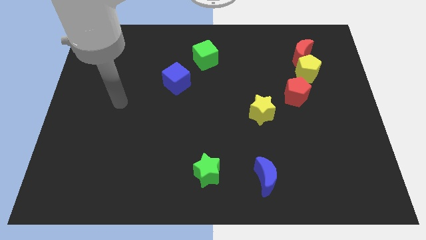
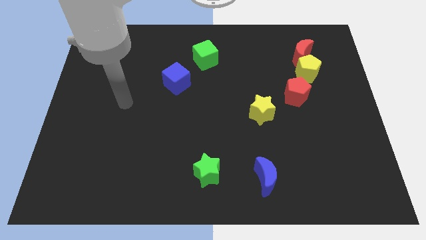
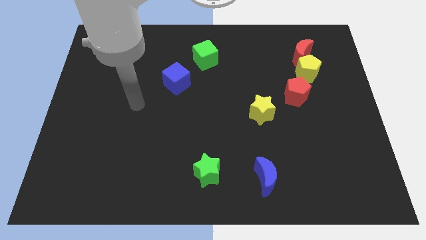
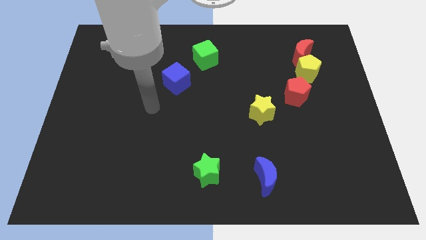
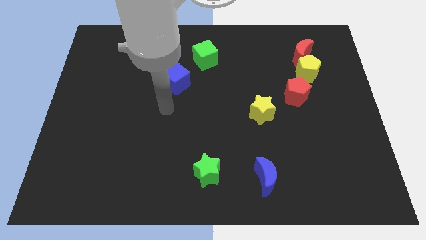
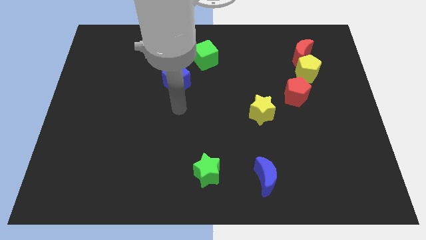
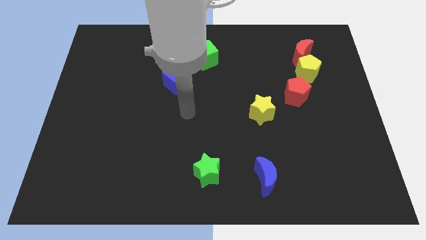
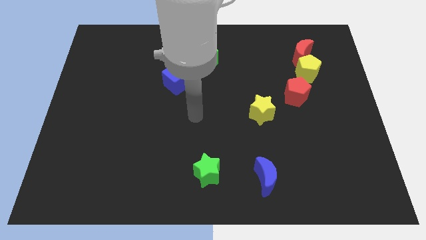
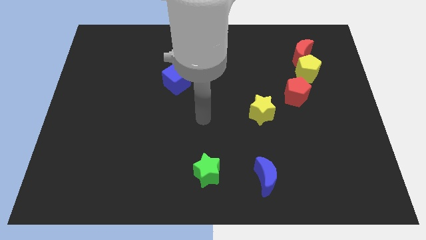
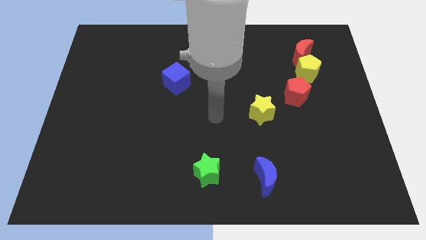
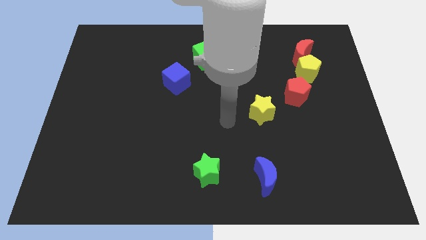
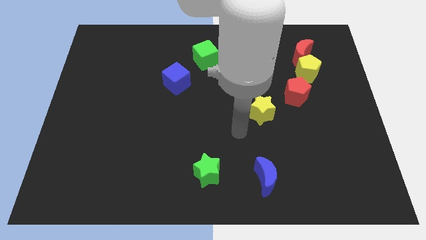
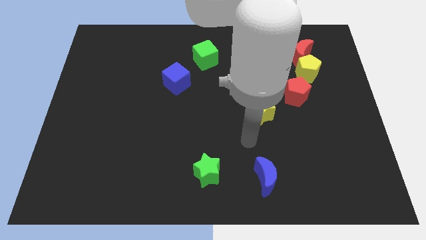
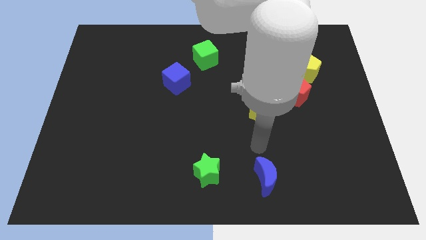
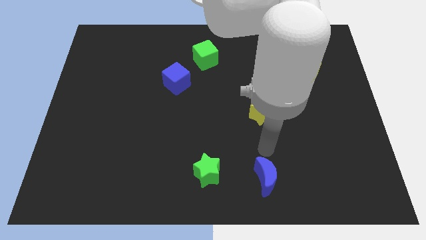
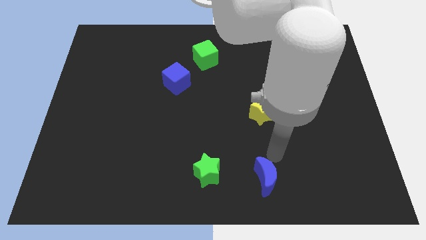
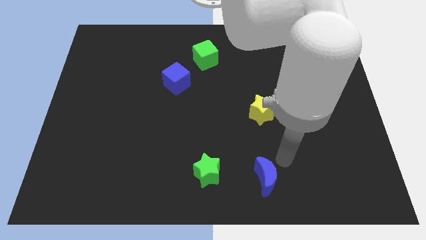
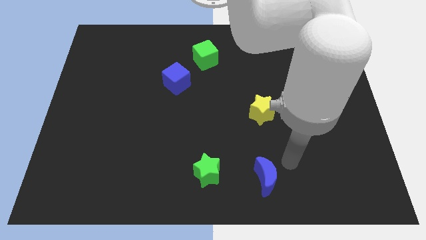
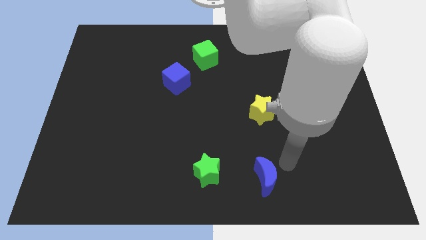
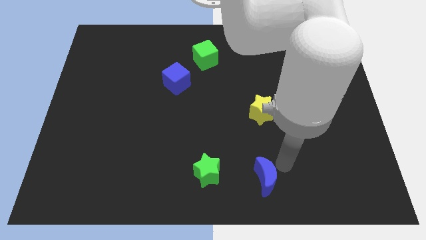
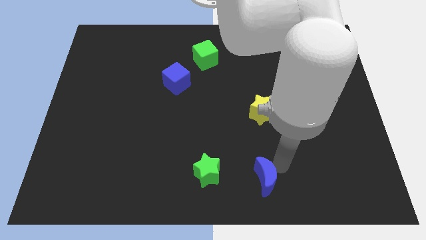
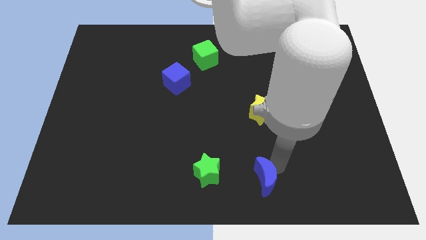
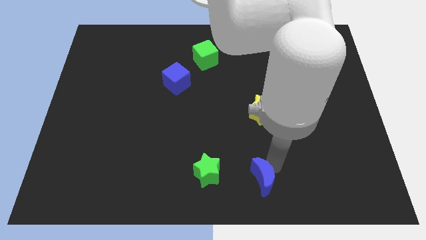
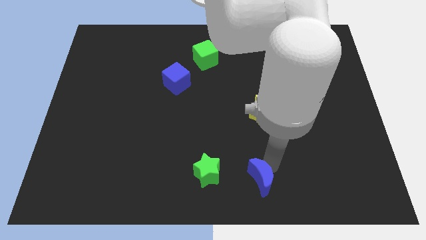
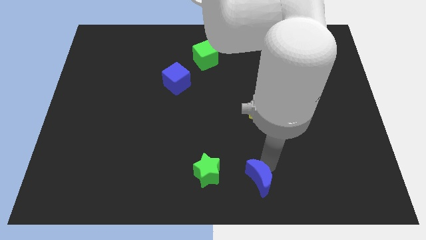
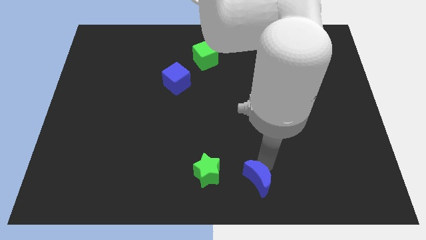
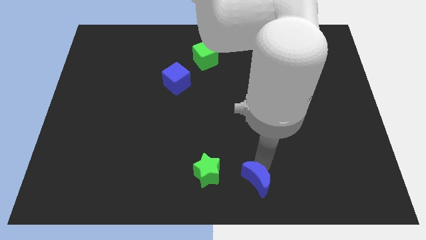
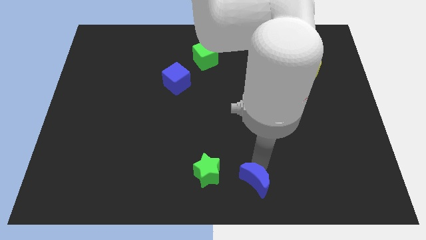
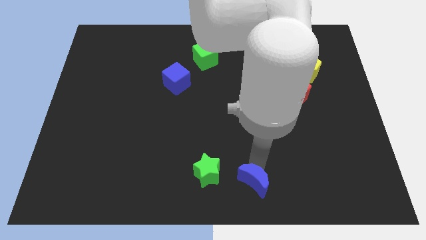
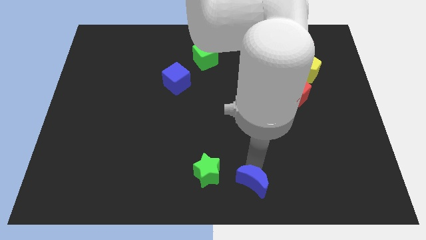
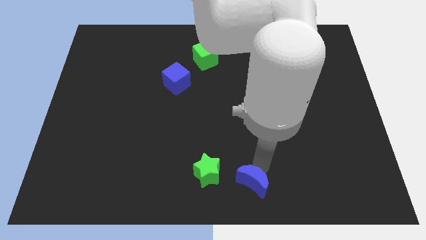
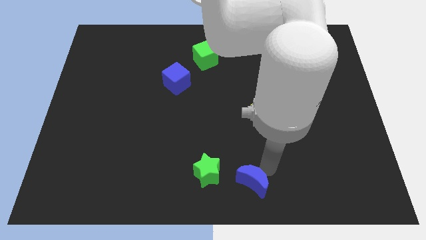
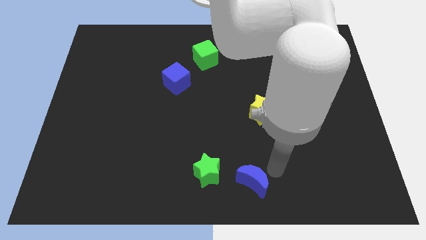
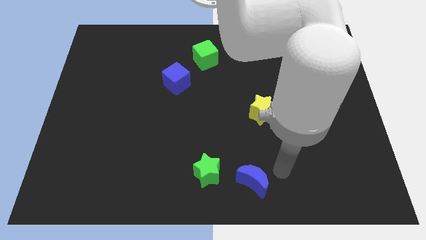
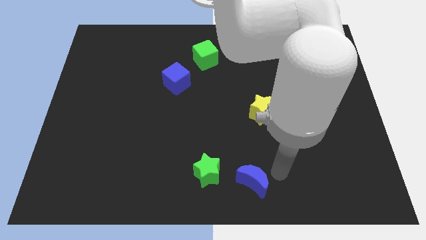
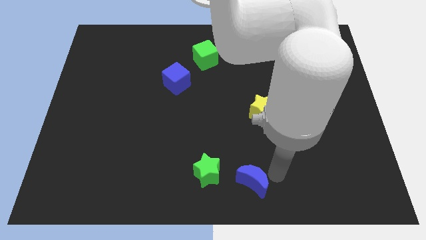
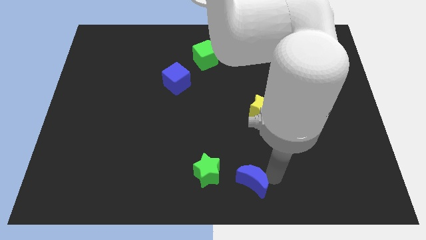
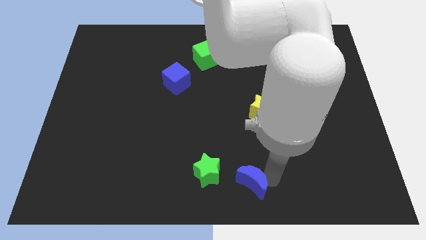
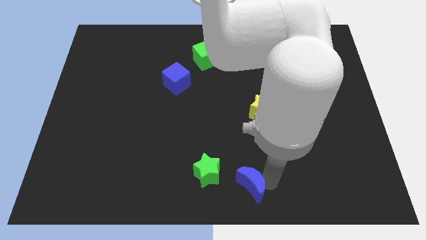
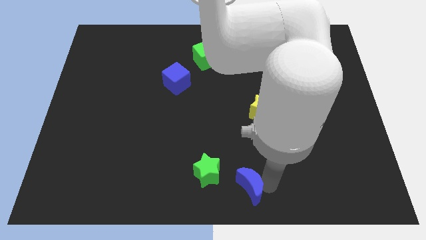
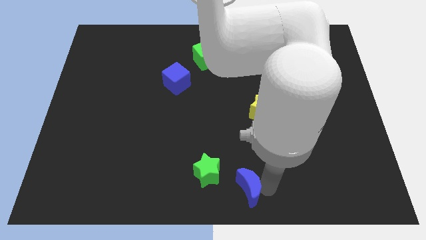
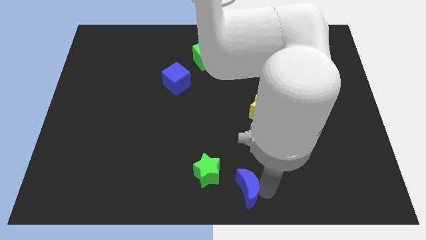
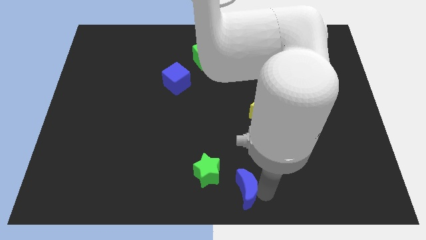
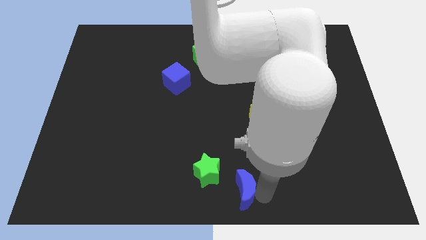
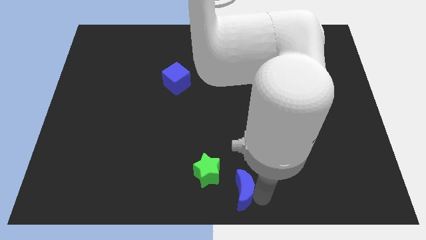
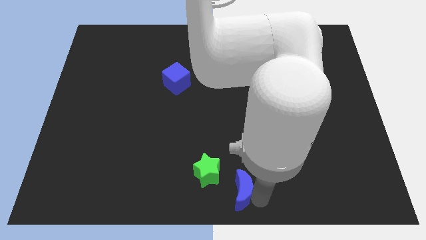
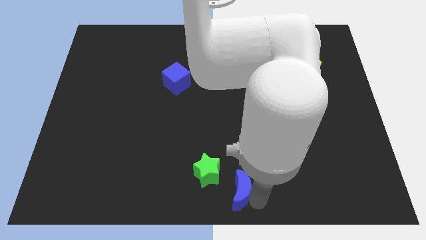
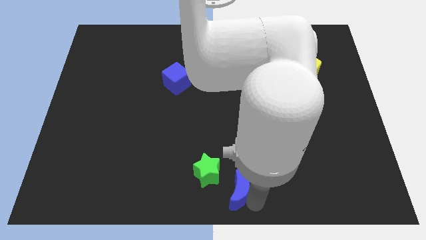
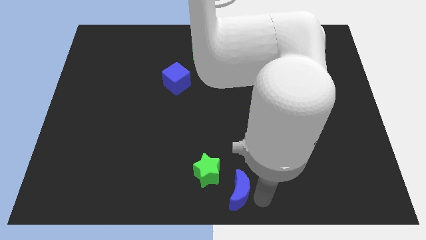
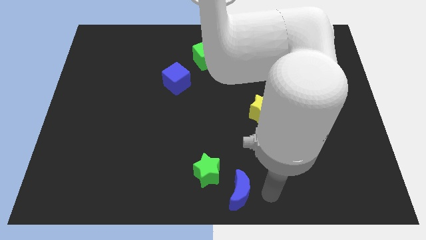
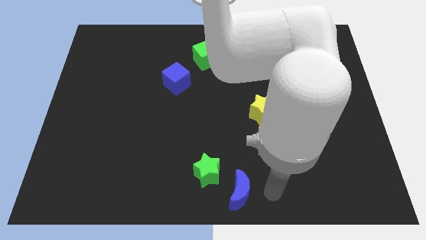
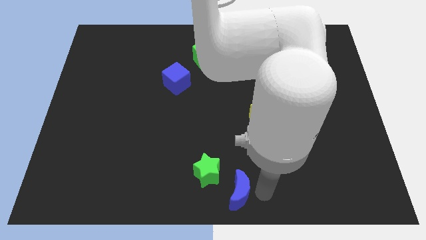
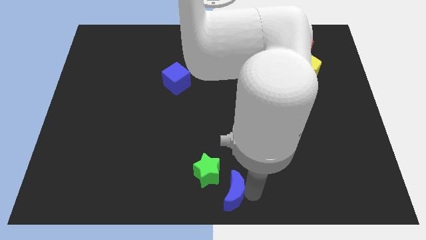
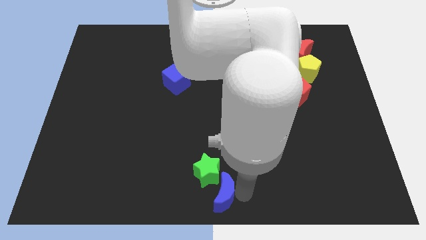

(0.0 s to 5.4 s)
slightly move the blue moon left

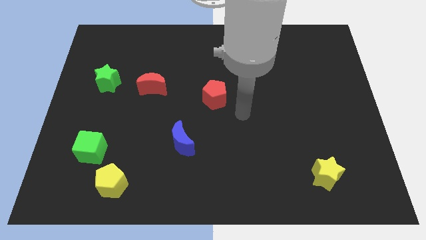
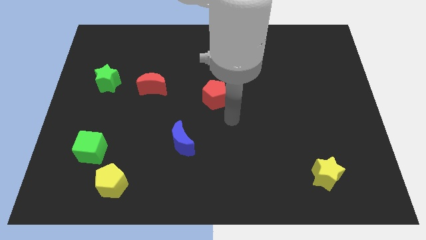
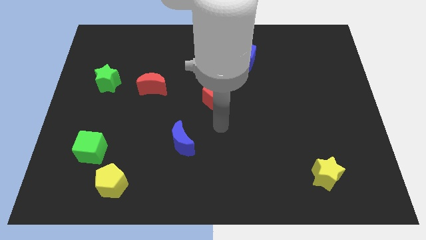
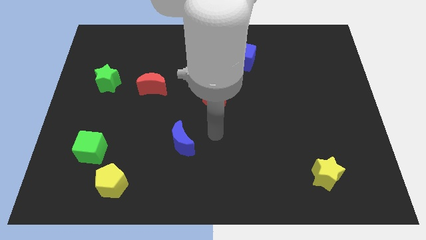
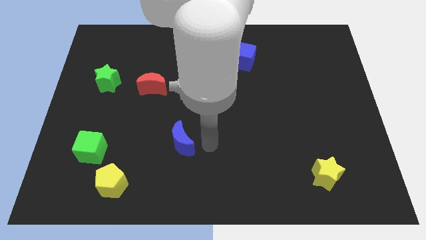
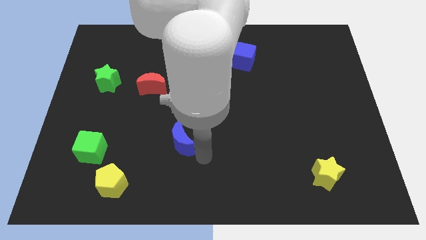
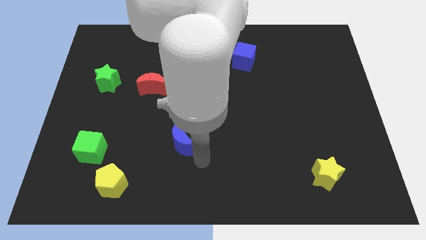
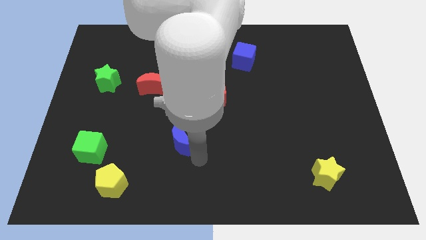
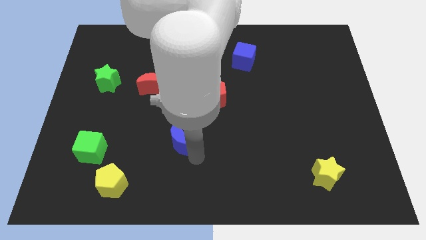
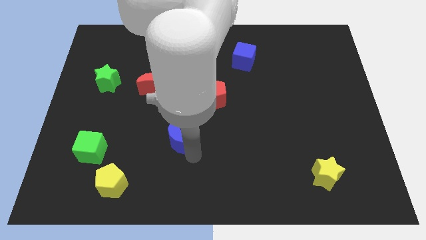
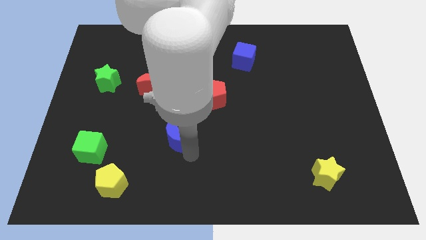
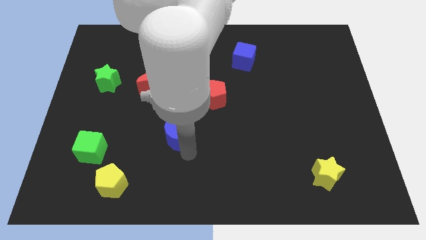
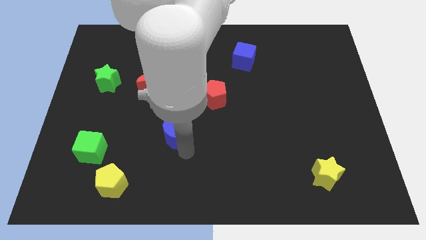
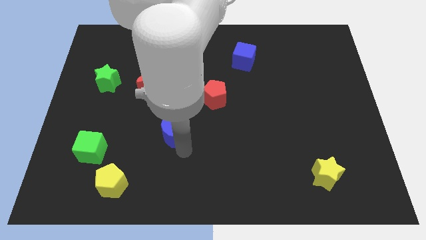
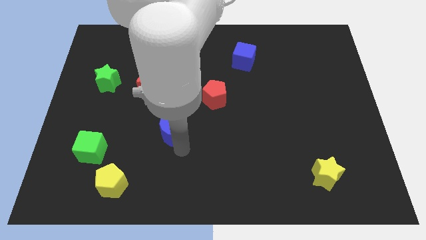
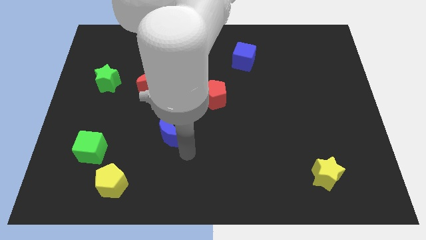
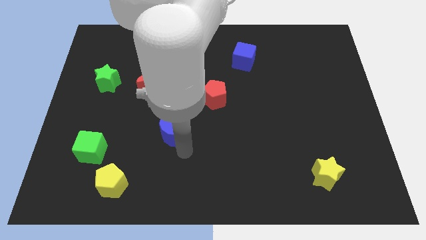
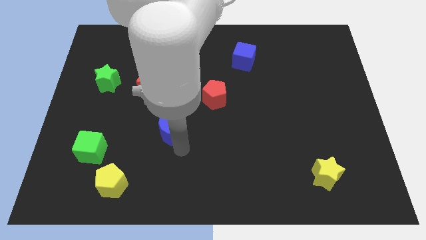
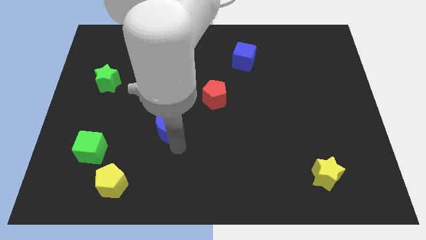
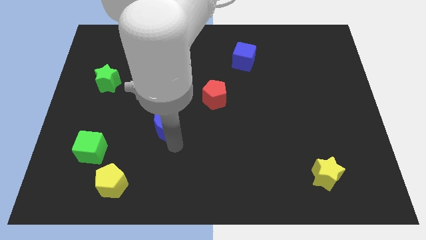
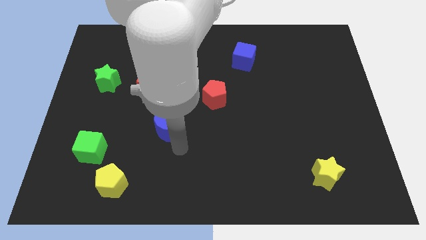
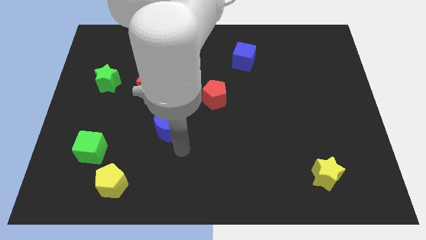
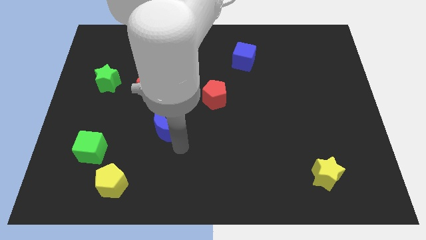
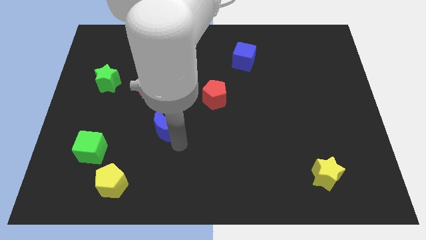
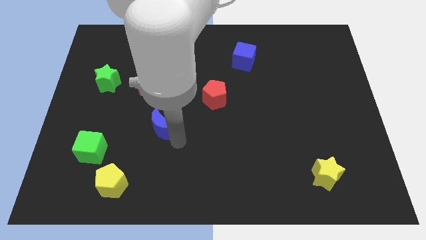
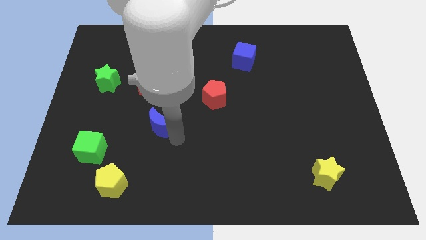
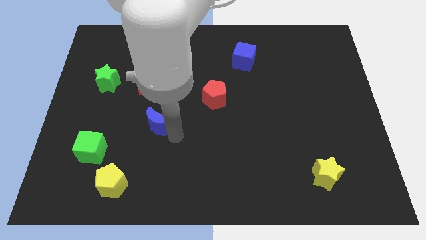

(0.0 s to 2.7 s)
slightly push the blue moon upwards and left diagonally
